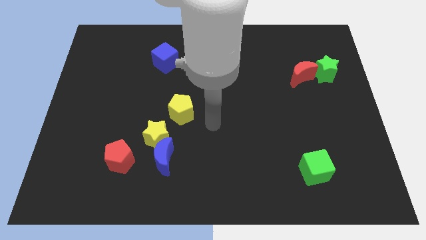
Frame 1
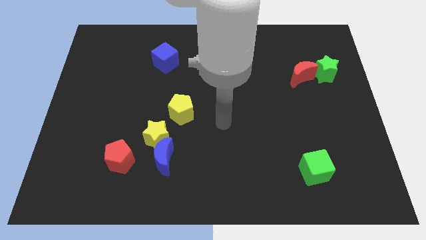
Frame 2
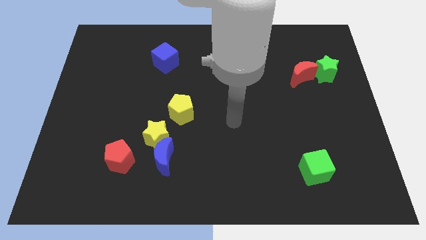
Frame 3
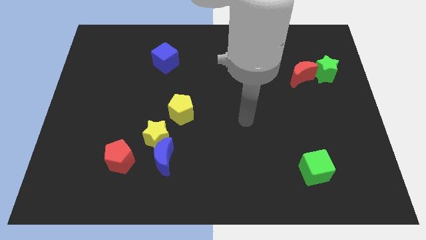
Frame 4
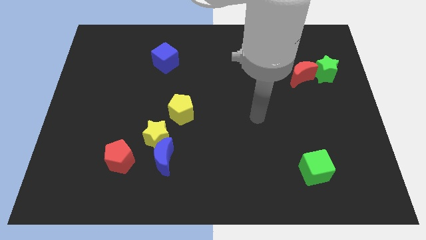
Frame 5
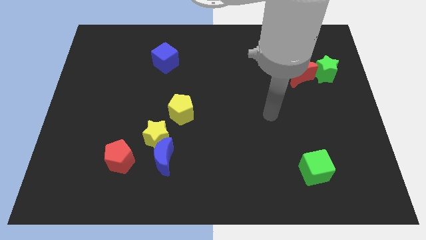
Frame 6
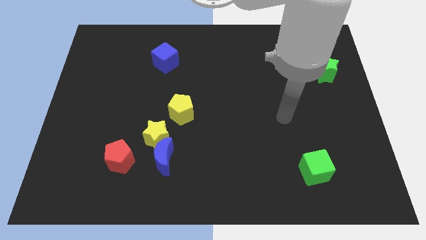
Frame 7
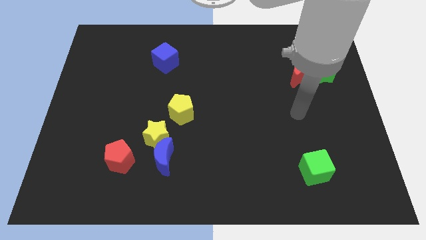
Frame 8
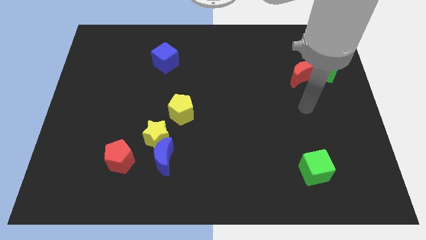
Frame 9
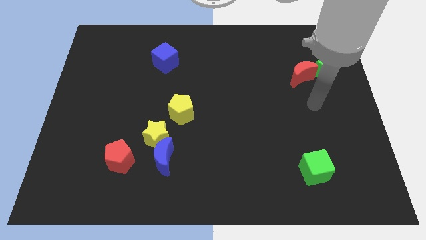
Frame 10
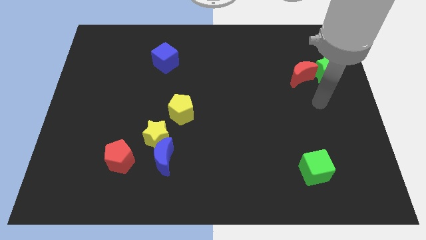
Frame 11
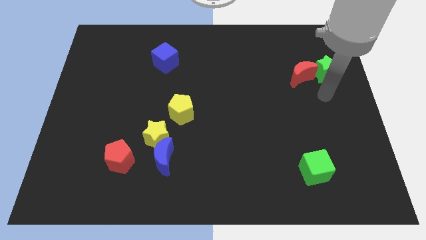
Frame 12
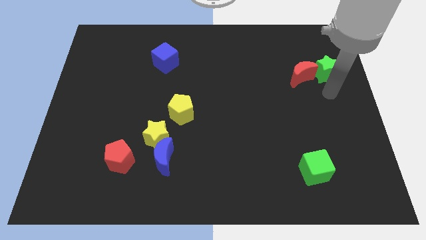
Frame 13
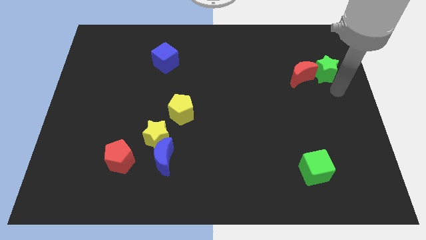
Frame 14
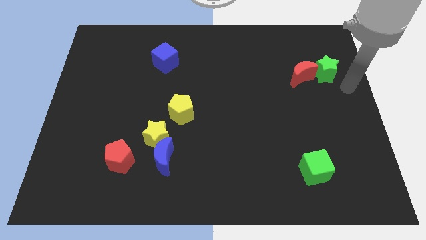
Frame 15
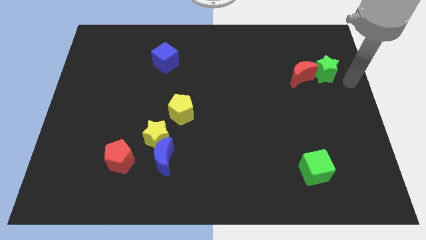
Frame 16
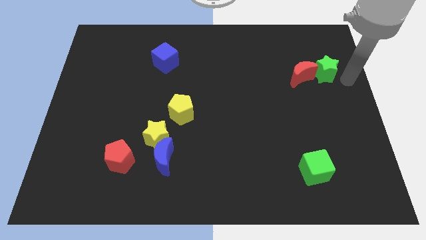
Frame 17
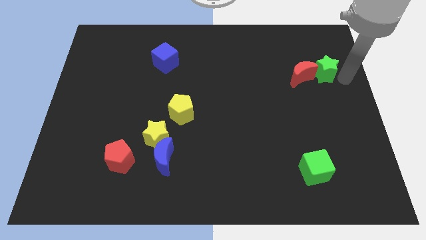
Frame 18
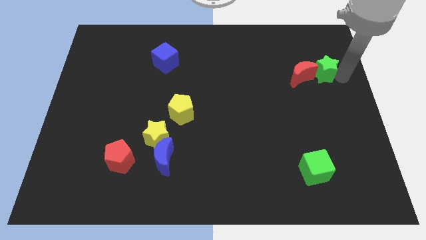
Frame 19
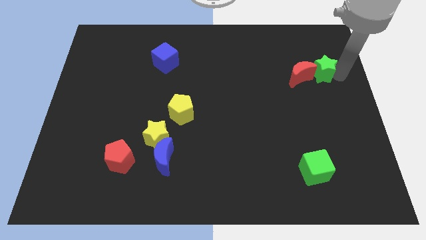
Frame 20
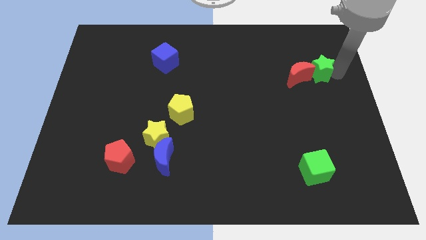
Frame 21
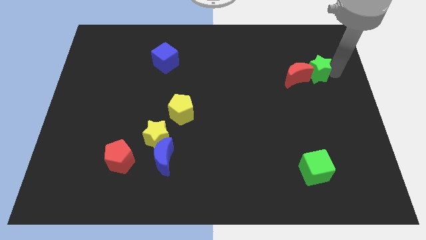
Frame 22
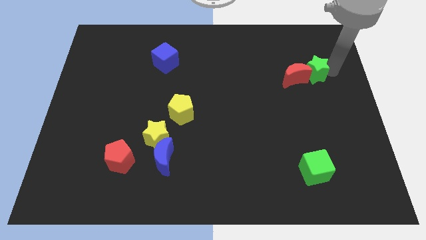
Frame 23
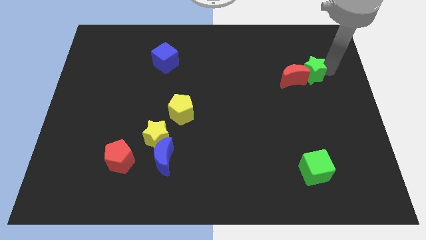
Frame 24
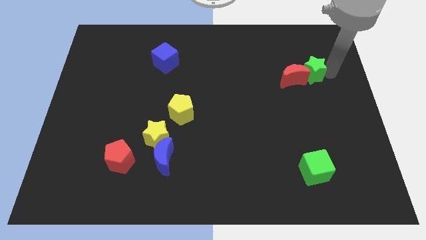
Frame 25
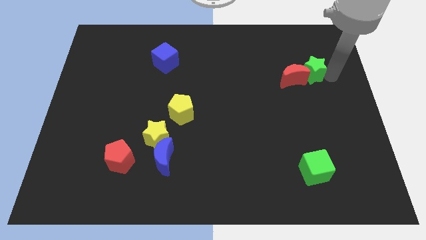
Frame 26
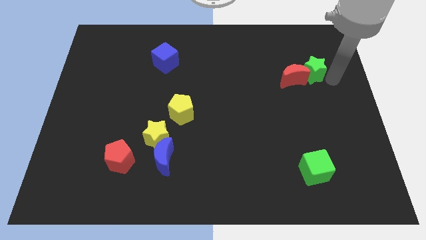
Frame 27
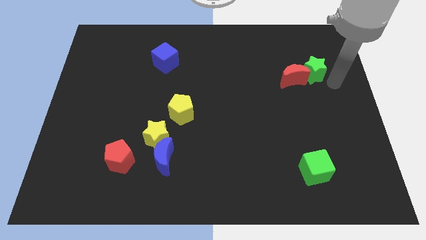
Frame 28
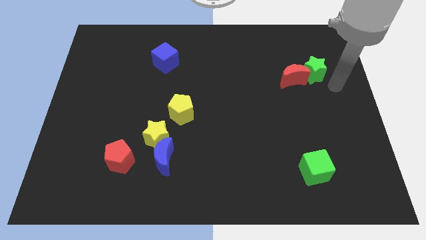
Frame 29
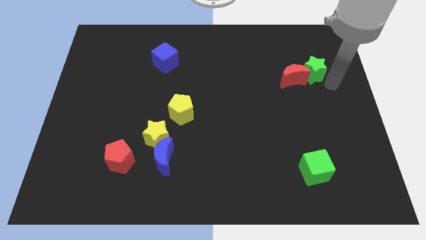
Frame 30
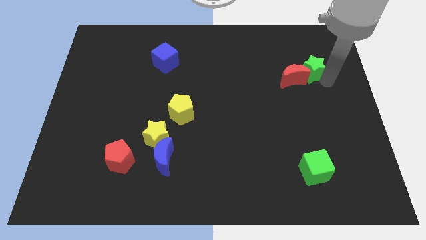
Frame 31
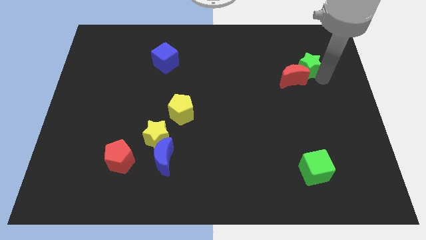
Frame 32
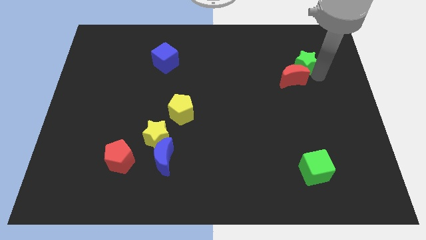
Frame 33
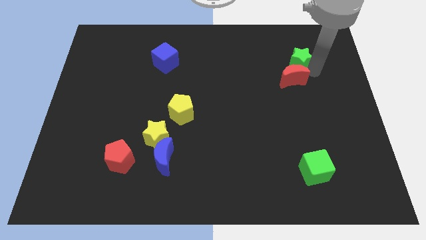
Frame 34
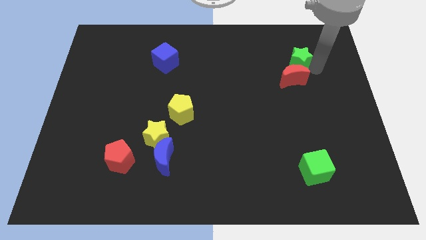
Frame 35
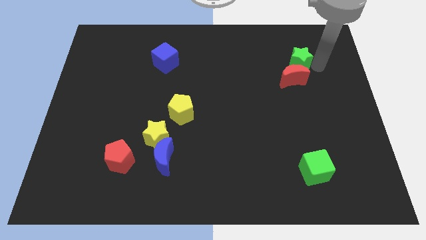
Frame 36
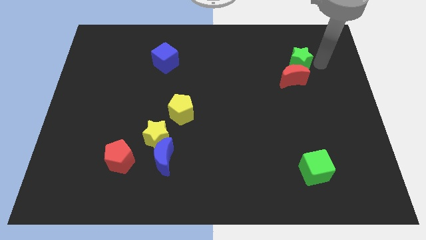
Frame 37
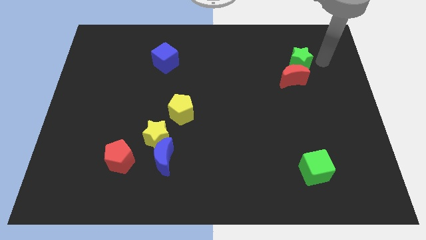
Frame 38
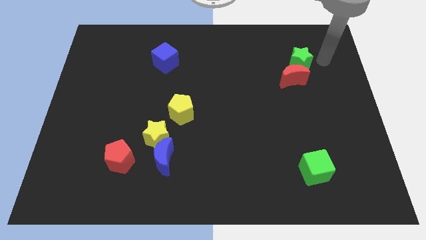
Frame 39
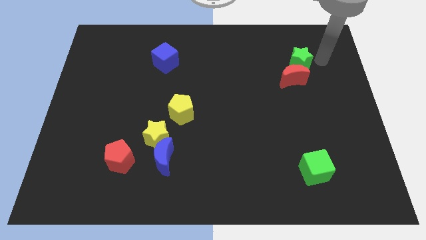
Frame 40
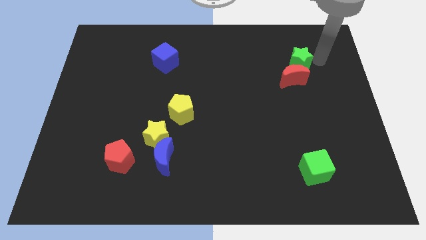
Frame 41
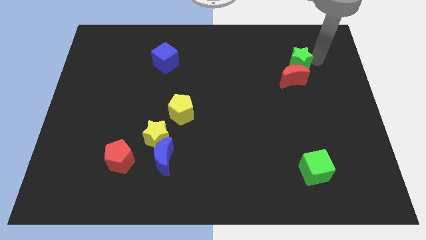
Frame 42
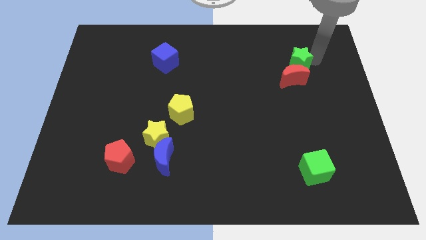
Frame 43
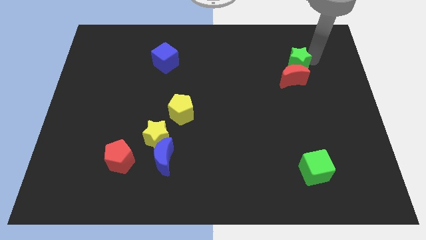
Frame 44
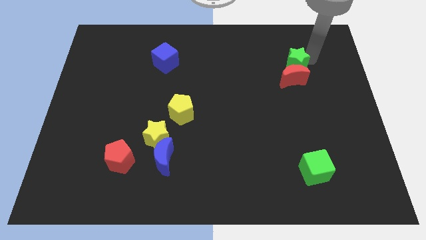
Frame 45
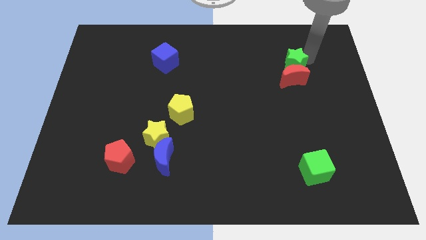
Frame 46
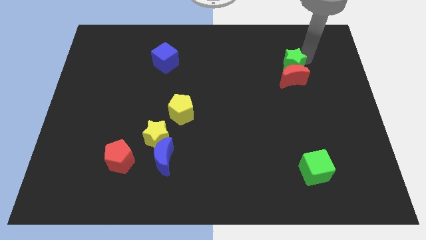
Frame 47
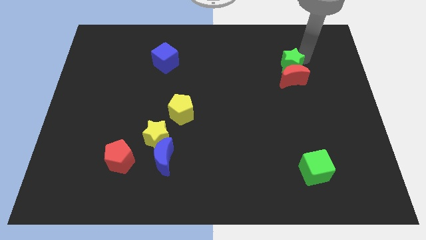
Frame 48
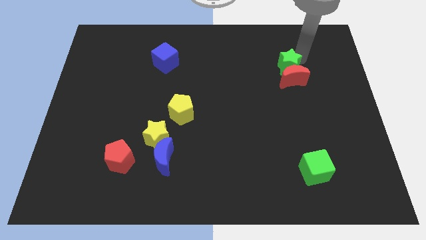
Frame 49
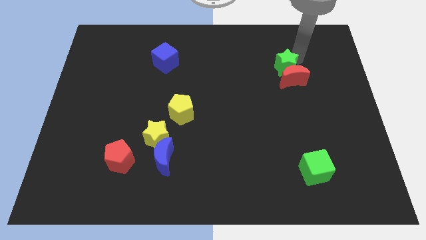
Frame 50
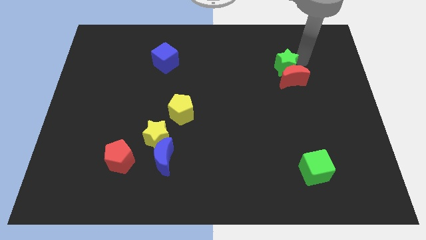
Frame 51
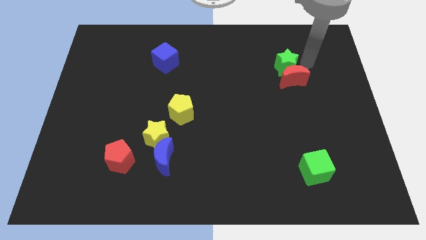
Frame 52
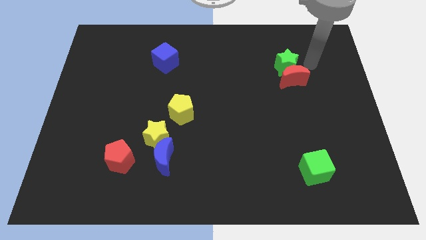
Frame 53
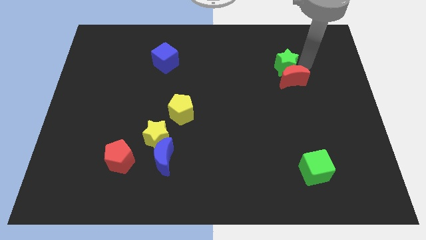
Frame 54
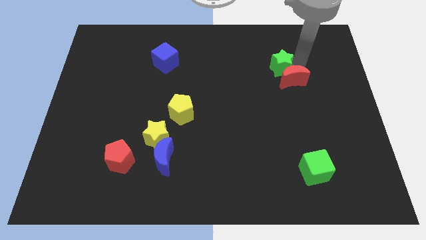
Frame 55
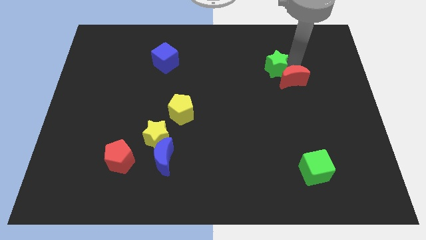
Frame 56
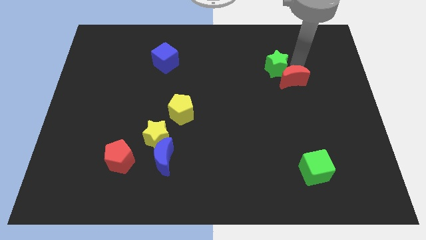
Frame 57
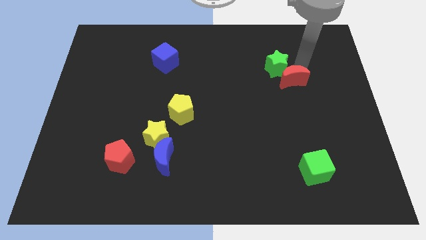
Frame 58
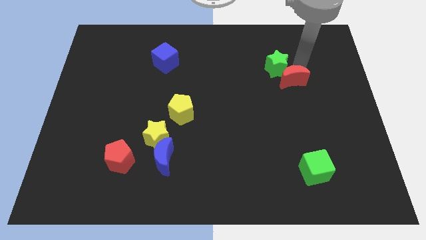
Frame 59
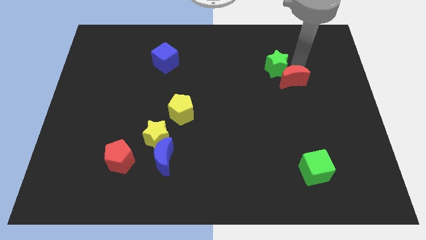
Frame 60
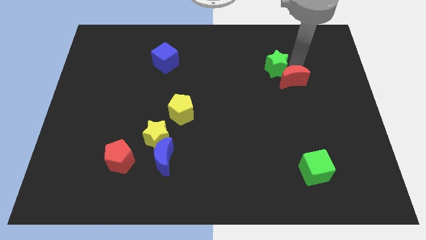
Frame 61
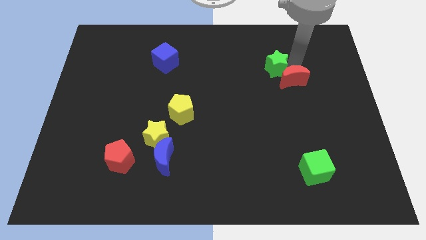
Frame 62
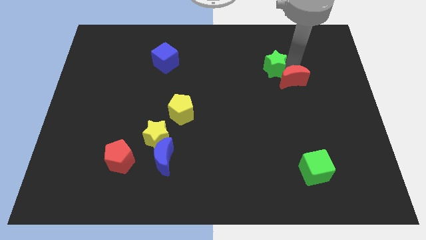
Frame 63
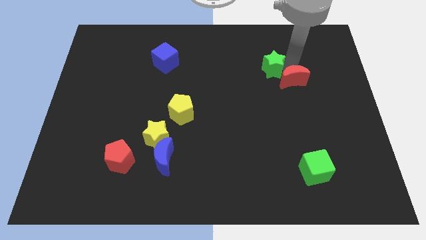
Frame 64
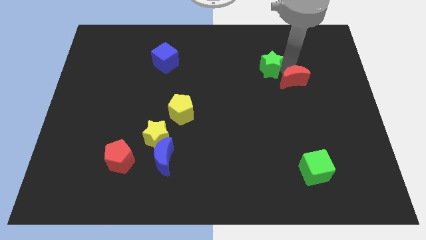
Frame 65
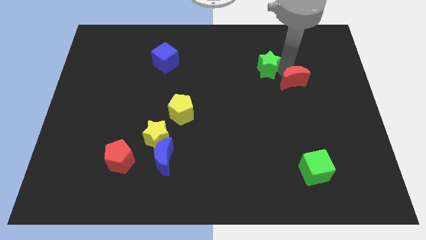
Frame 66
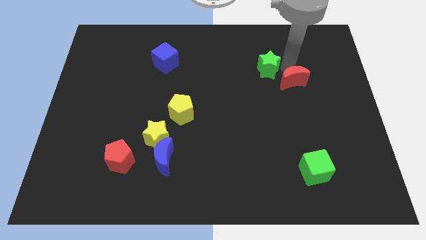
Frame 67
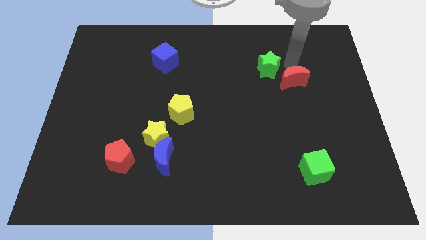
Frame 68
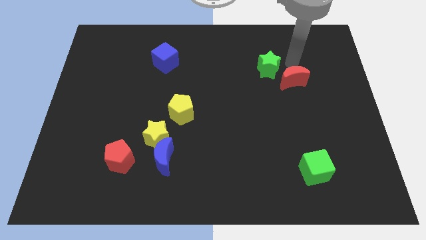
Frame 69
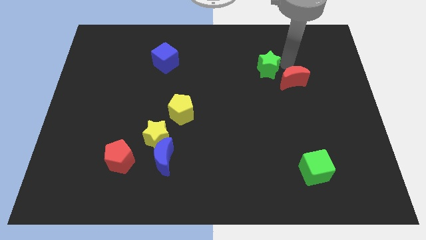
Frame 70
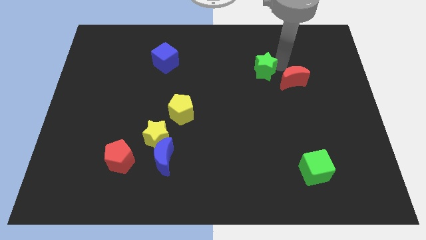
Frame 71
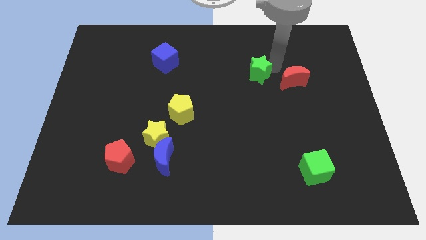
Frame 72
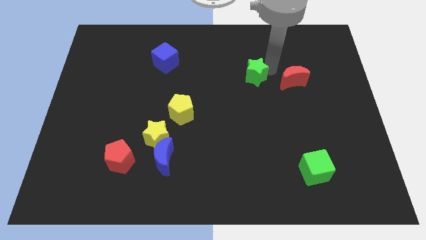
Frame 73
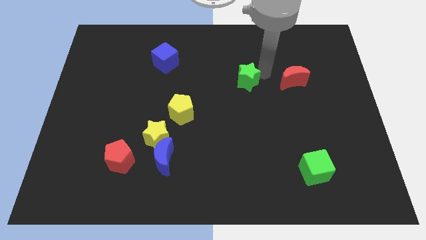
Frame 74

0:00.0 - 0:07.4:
move the green star left

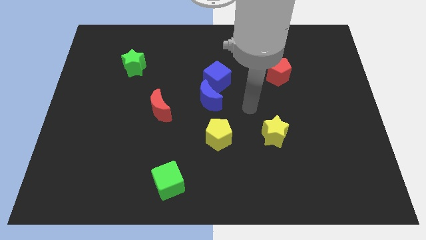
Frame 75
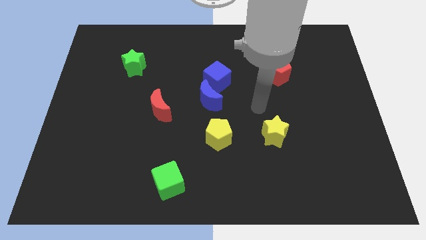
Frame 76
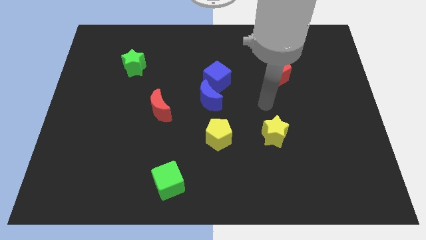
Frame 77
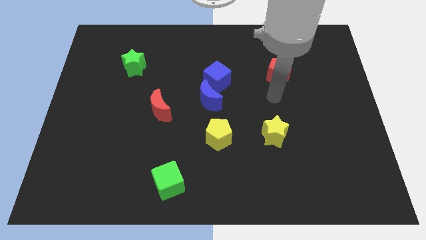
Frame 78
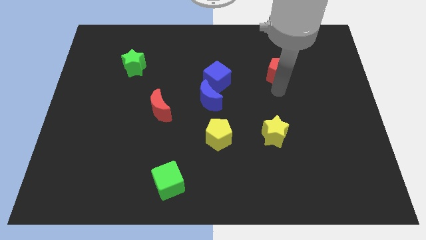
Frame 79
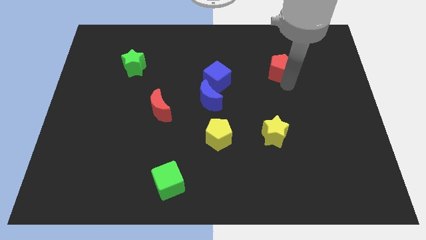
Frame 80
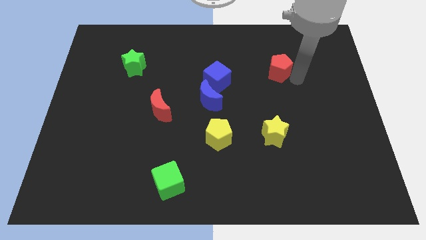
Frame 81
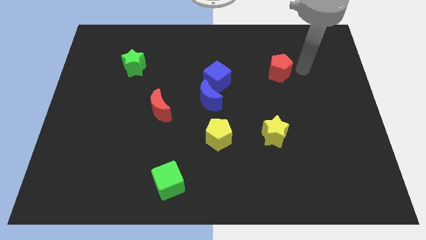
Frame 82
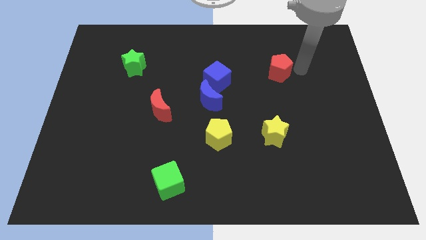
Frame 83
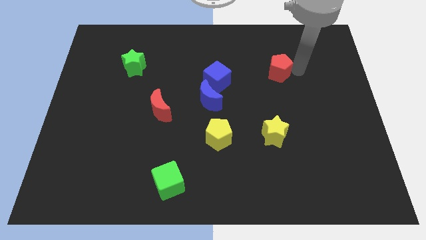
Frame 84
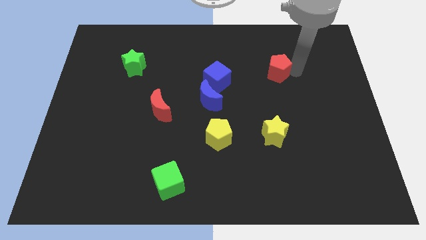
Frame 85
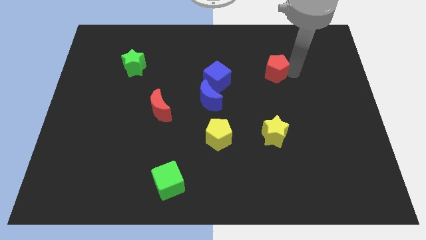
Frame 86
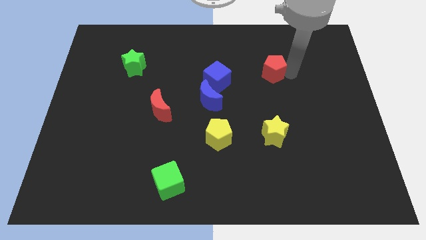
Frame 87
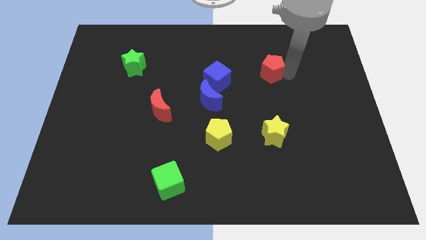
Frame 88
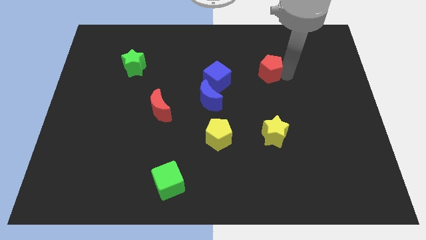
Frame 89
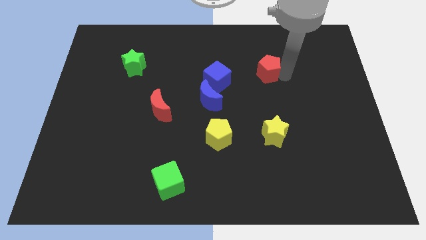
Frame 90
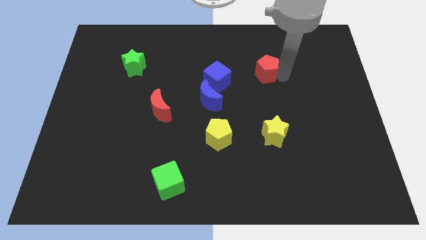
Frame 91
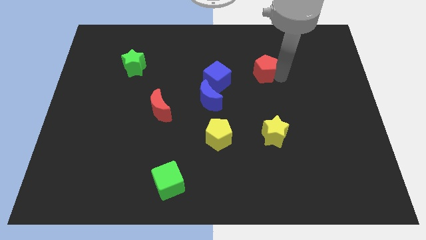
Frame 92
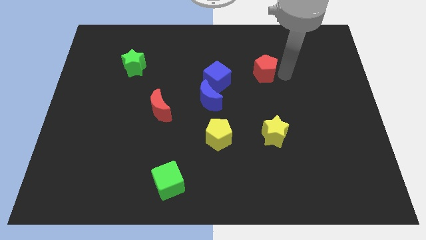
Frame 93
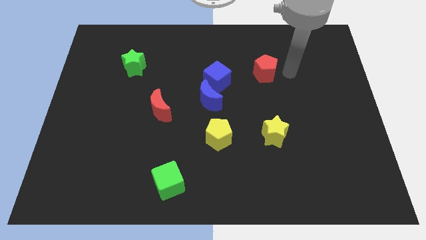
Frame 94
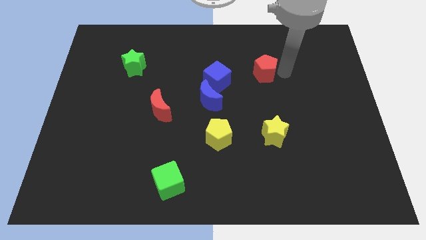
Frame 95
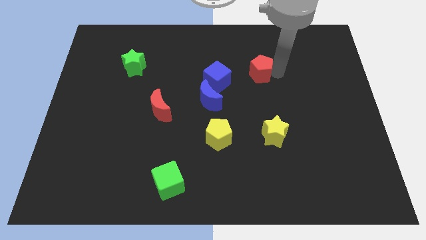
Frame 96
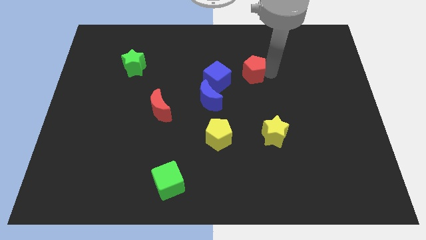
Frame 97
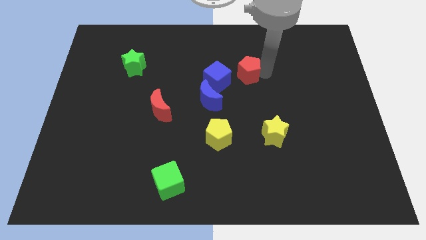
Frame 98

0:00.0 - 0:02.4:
push the red pentagon a little left
